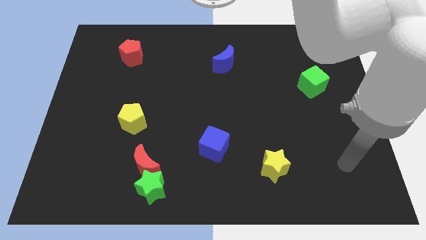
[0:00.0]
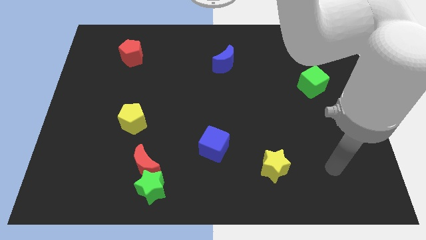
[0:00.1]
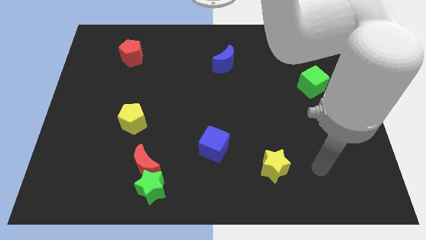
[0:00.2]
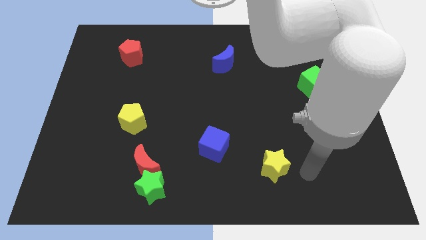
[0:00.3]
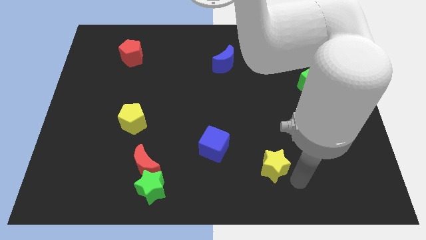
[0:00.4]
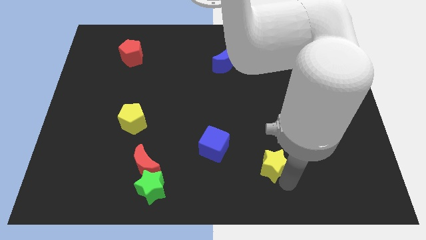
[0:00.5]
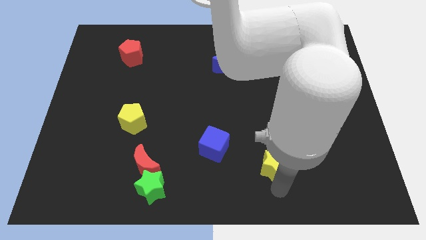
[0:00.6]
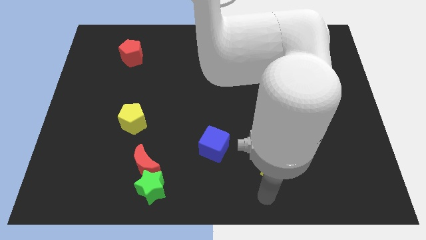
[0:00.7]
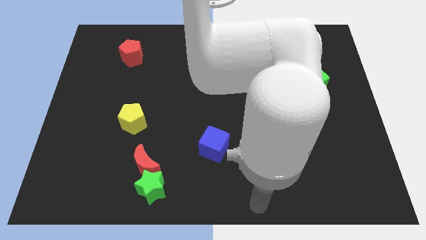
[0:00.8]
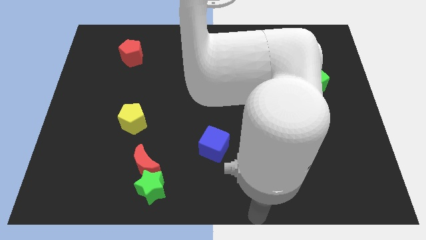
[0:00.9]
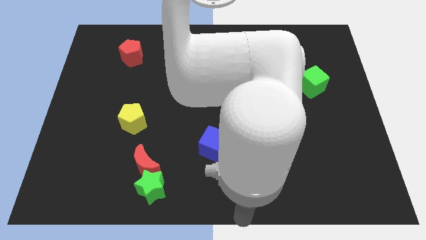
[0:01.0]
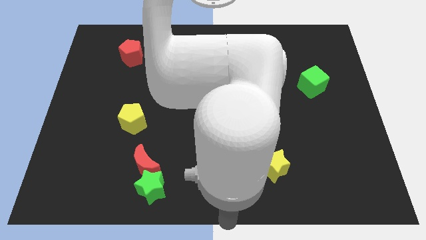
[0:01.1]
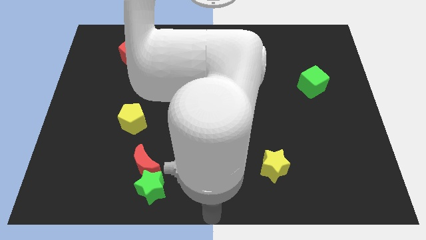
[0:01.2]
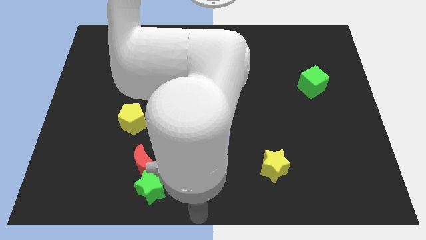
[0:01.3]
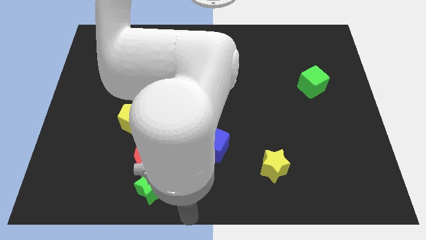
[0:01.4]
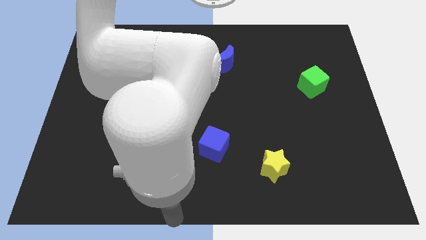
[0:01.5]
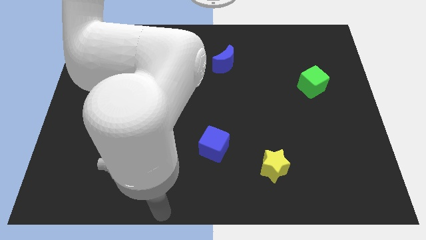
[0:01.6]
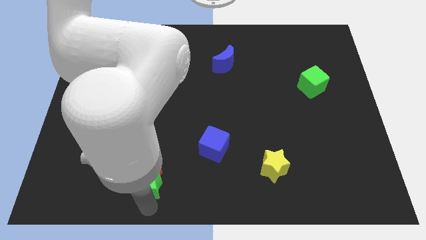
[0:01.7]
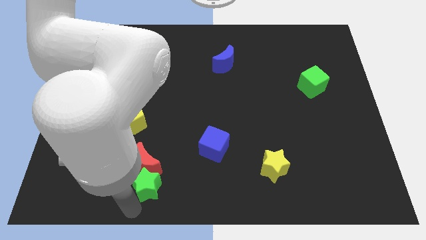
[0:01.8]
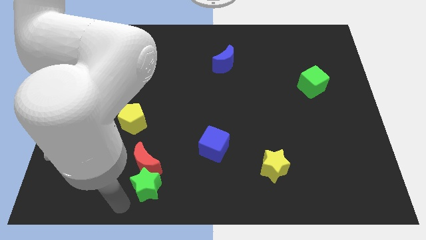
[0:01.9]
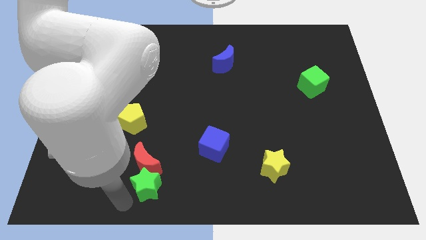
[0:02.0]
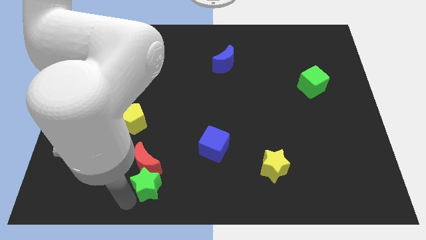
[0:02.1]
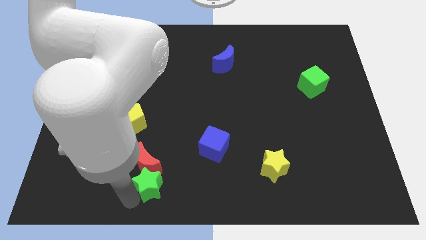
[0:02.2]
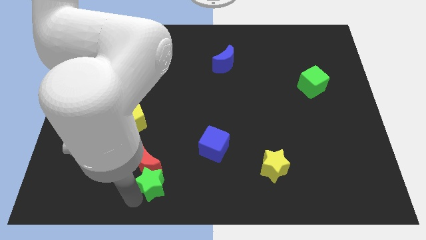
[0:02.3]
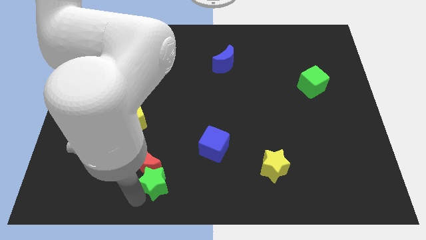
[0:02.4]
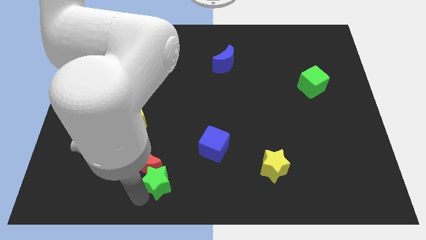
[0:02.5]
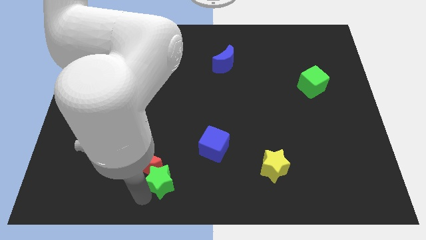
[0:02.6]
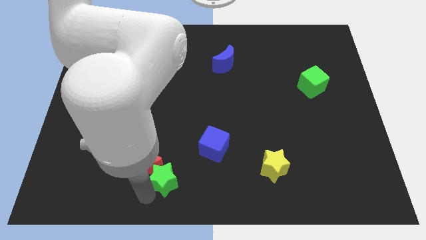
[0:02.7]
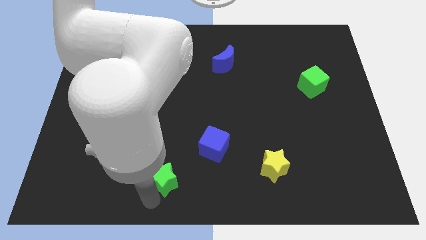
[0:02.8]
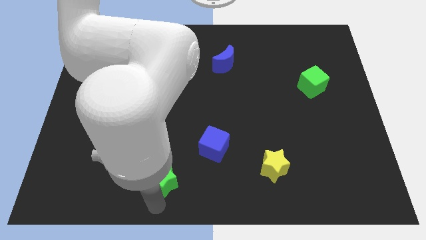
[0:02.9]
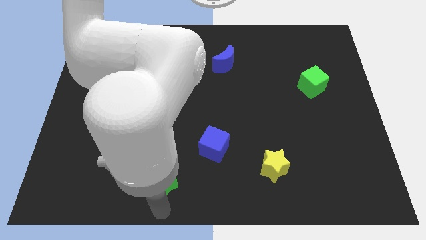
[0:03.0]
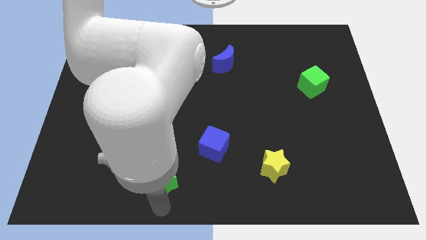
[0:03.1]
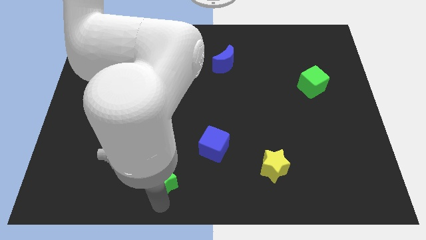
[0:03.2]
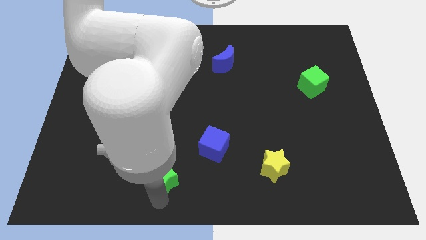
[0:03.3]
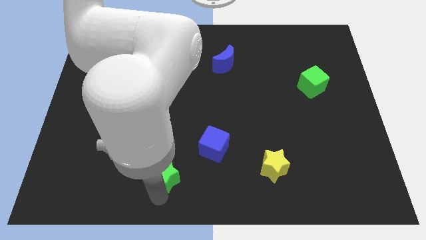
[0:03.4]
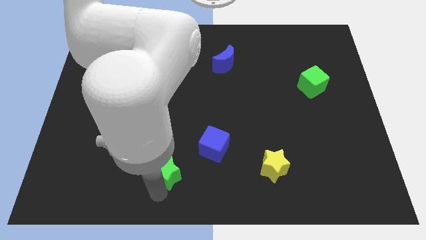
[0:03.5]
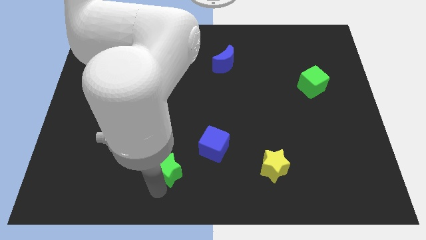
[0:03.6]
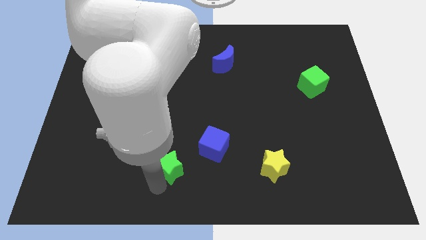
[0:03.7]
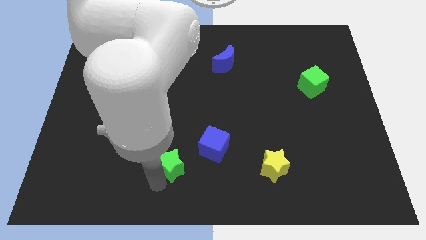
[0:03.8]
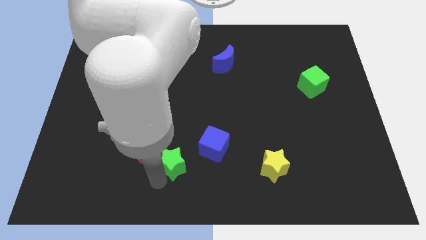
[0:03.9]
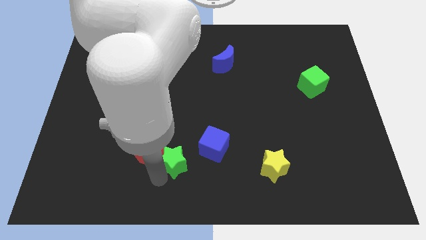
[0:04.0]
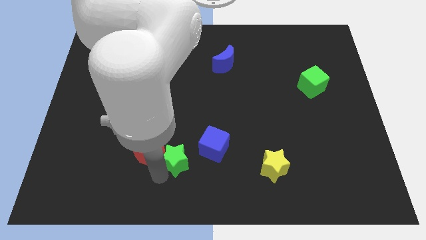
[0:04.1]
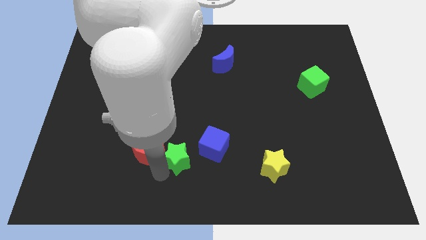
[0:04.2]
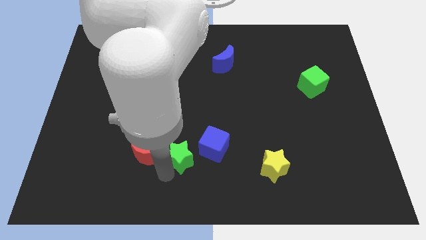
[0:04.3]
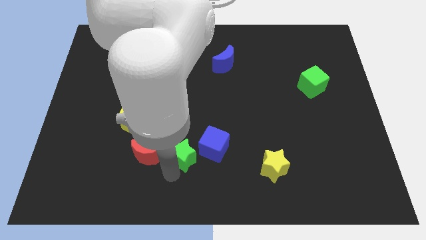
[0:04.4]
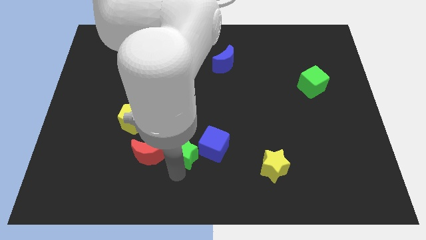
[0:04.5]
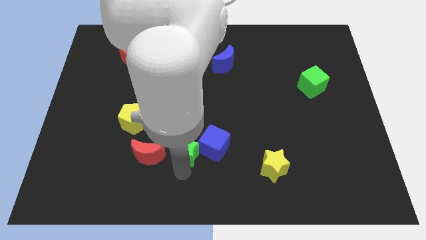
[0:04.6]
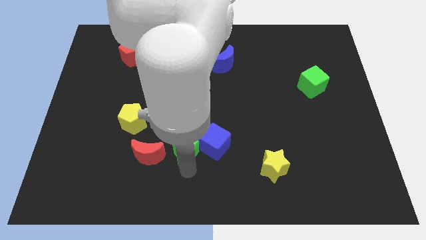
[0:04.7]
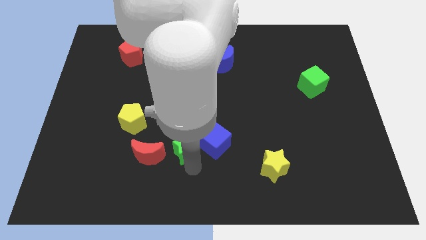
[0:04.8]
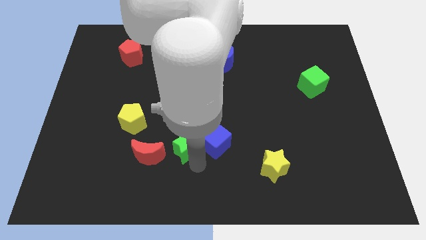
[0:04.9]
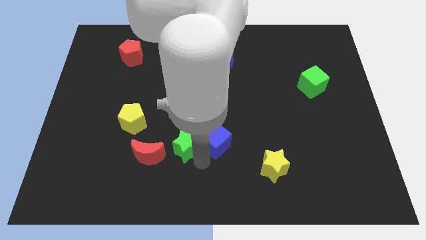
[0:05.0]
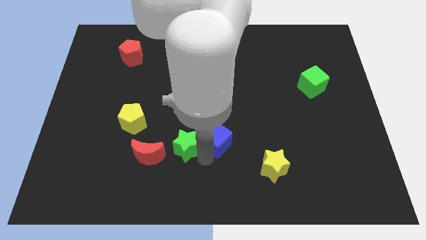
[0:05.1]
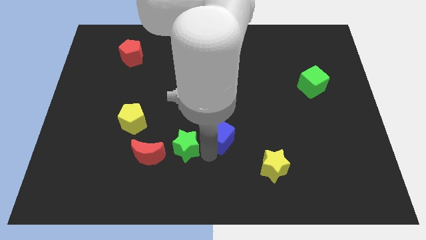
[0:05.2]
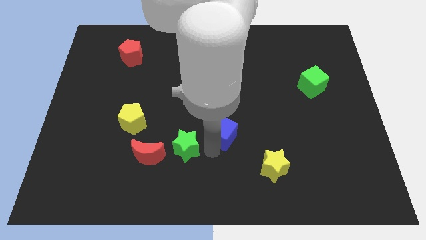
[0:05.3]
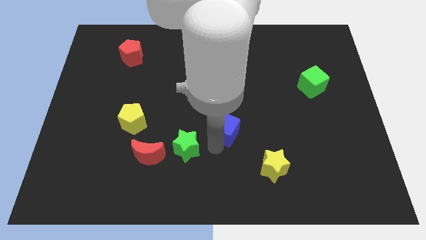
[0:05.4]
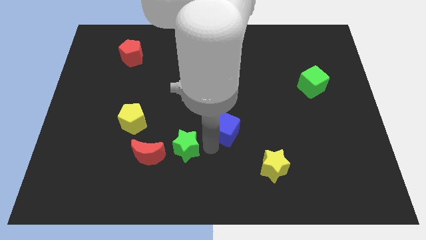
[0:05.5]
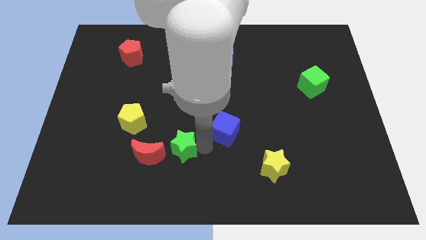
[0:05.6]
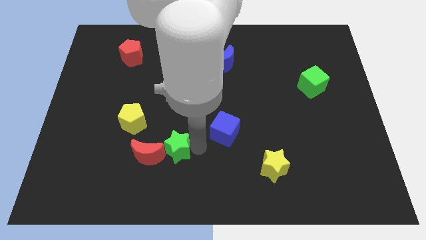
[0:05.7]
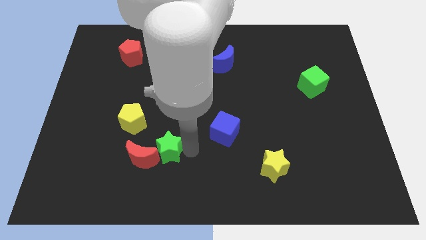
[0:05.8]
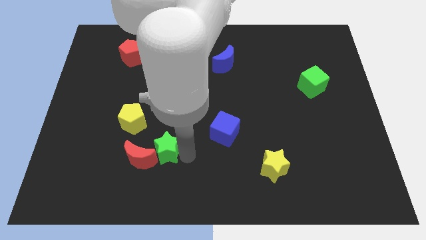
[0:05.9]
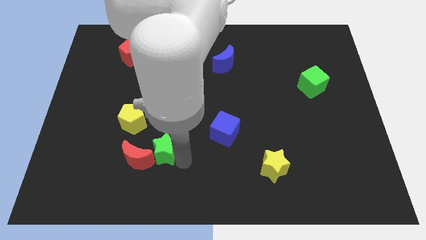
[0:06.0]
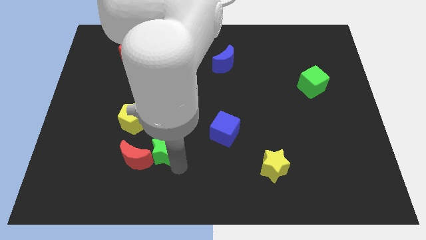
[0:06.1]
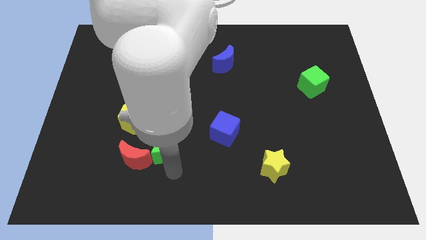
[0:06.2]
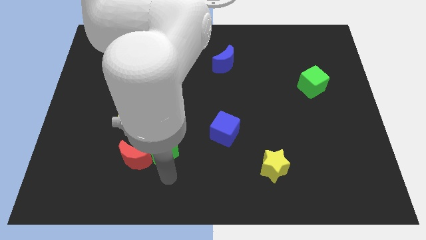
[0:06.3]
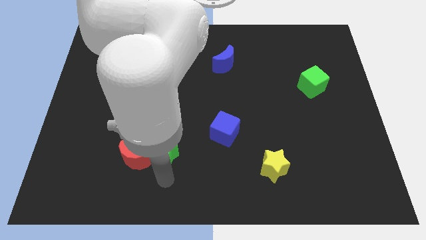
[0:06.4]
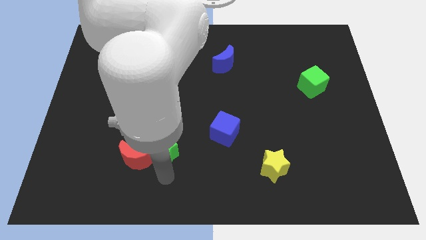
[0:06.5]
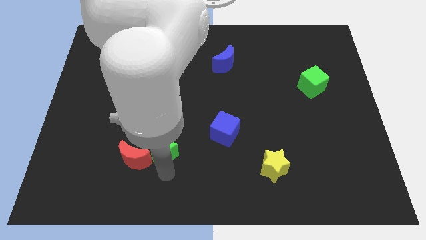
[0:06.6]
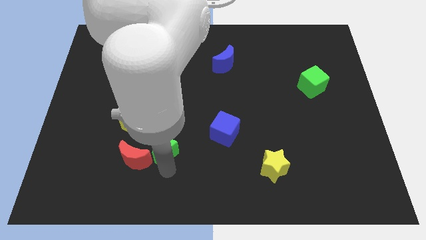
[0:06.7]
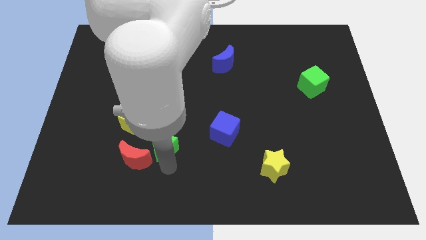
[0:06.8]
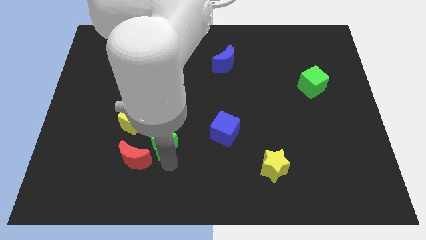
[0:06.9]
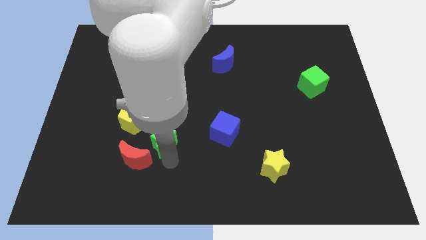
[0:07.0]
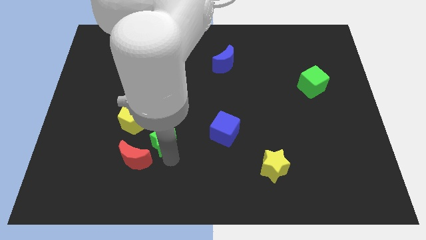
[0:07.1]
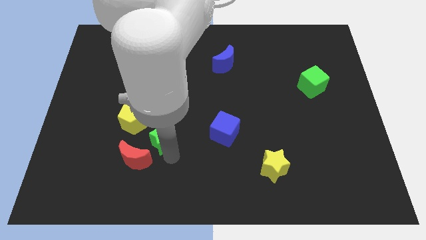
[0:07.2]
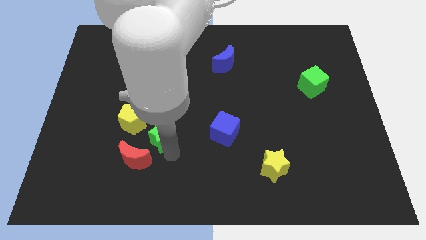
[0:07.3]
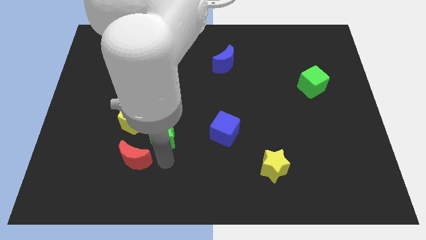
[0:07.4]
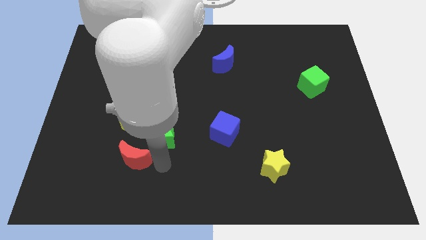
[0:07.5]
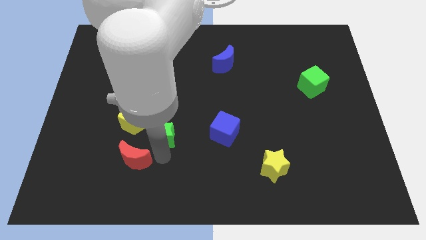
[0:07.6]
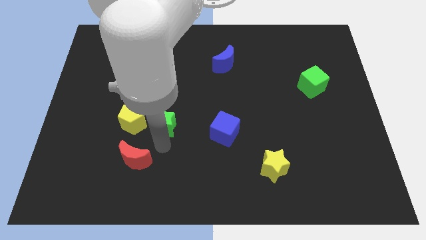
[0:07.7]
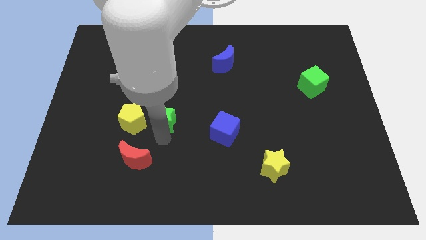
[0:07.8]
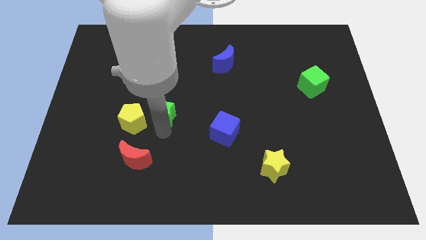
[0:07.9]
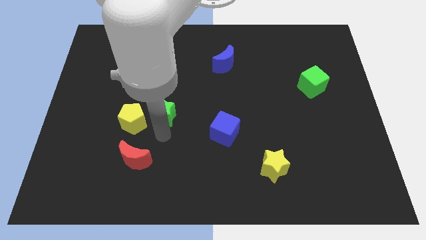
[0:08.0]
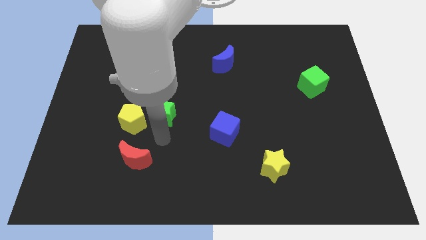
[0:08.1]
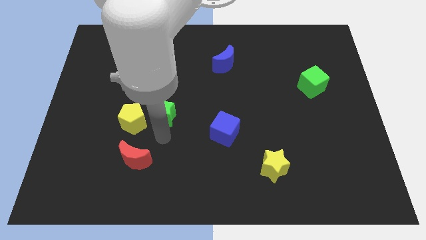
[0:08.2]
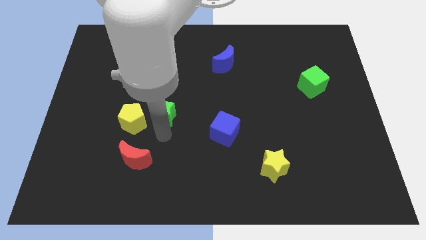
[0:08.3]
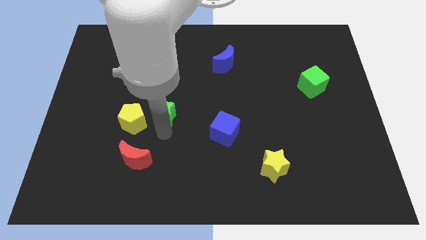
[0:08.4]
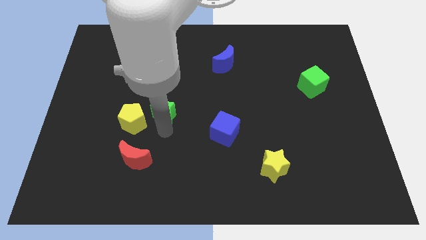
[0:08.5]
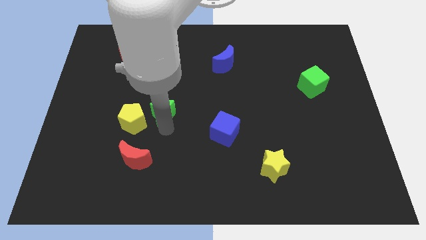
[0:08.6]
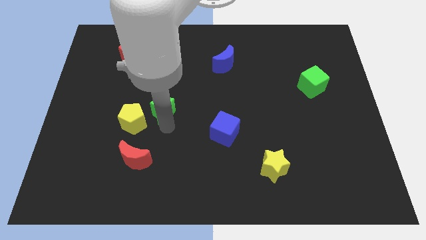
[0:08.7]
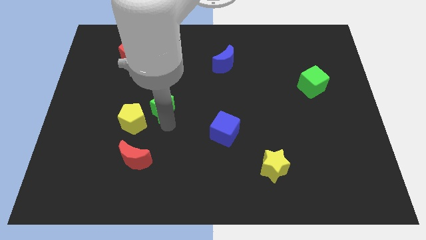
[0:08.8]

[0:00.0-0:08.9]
push the green star upwards
